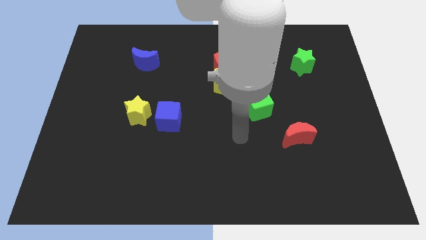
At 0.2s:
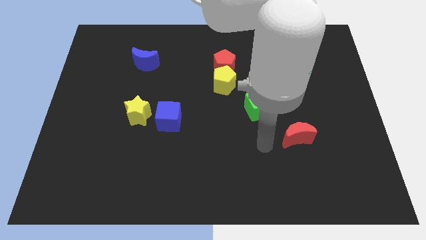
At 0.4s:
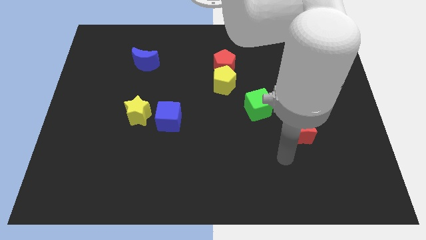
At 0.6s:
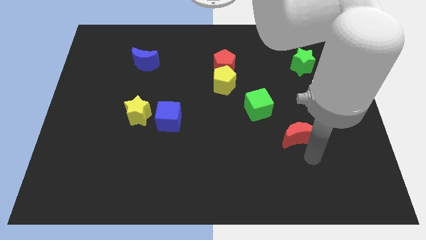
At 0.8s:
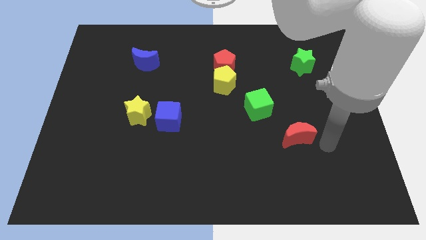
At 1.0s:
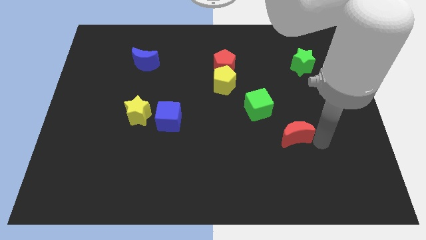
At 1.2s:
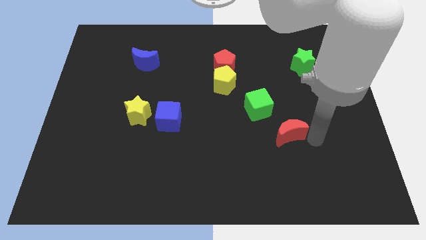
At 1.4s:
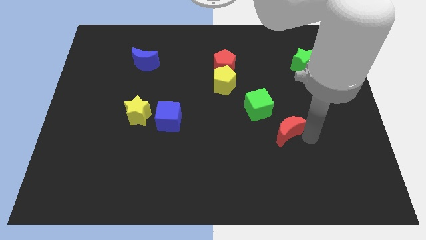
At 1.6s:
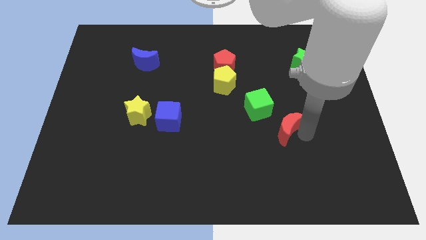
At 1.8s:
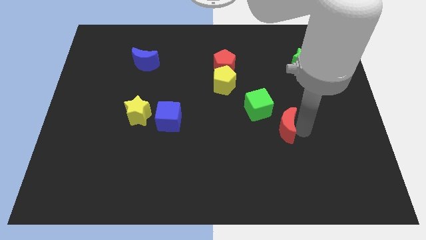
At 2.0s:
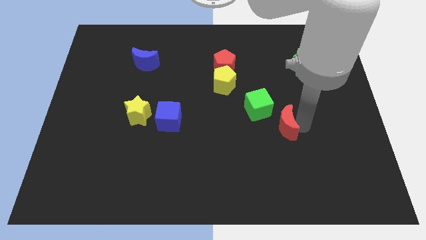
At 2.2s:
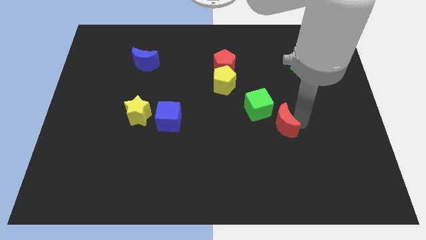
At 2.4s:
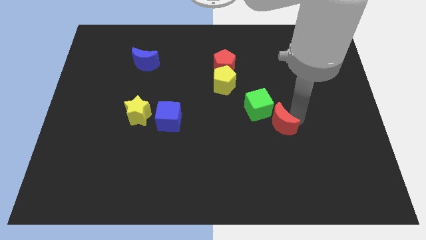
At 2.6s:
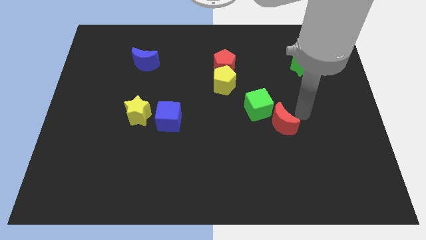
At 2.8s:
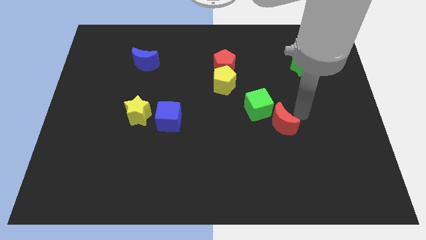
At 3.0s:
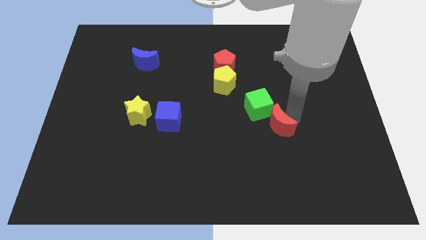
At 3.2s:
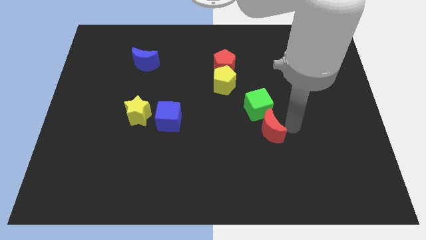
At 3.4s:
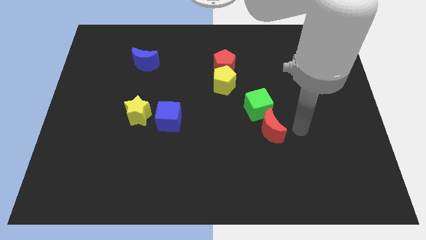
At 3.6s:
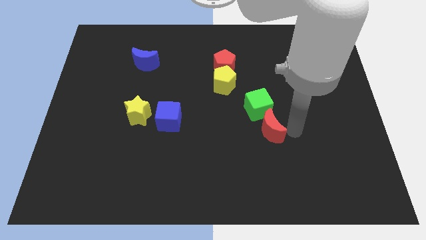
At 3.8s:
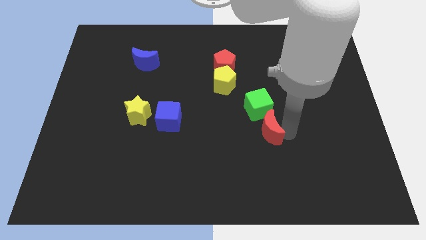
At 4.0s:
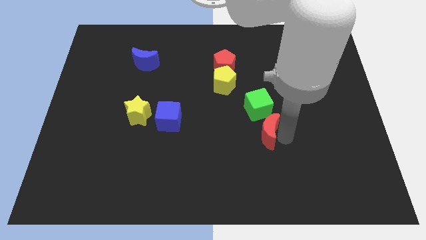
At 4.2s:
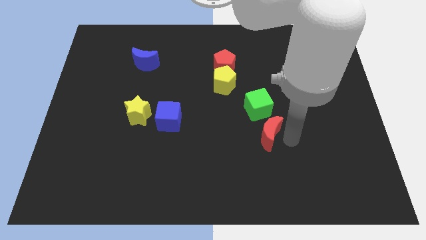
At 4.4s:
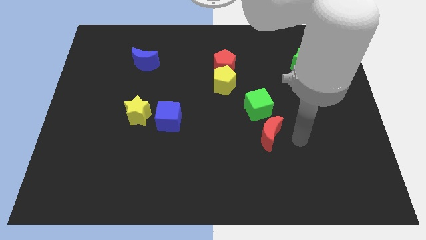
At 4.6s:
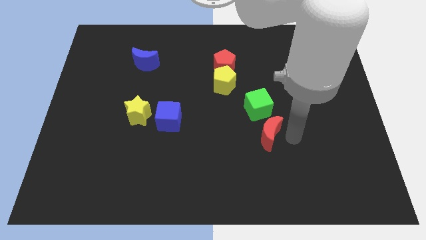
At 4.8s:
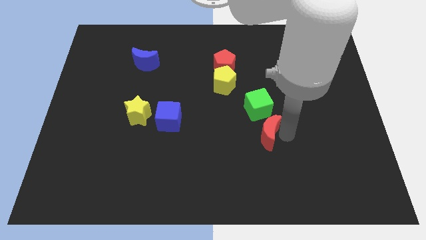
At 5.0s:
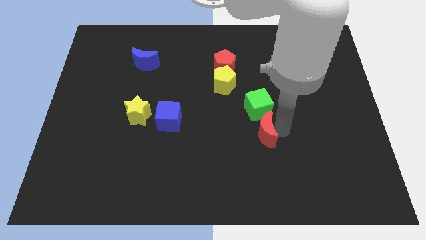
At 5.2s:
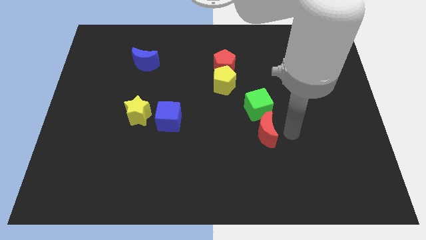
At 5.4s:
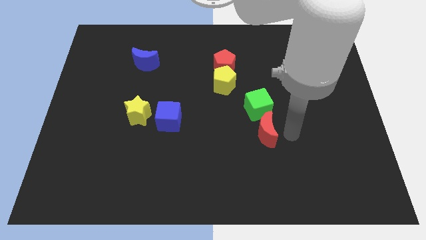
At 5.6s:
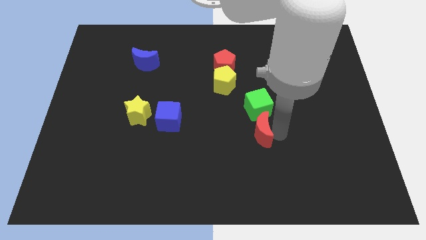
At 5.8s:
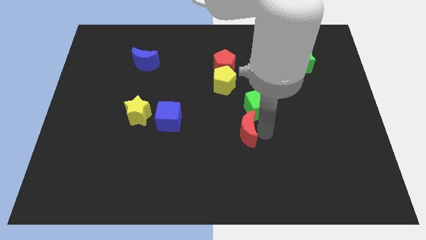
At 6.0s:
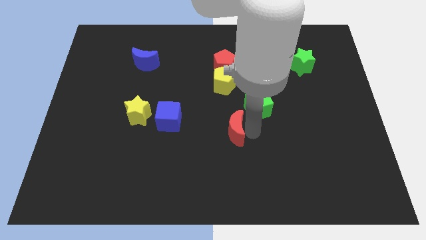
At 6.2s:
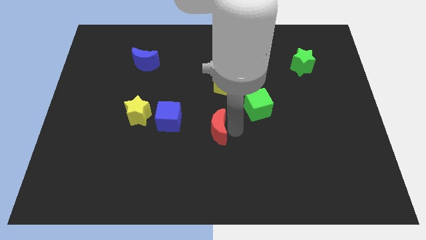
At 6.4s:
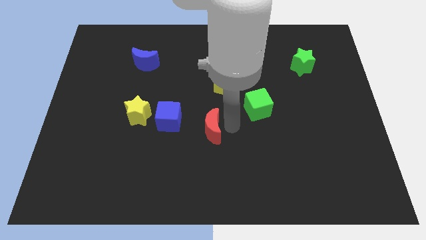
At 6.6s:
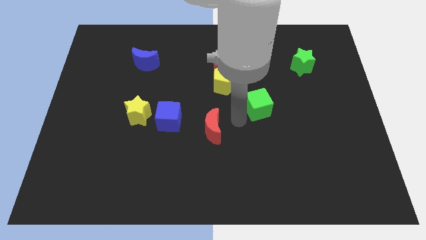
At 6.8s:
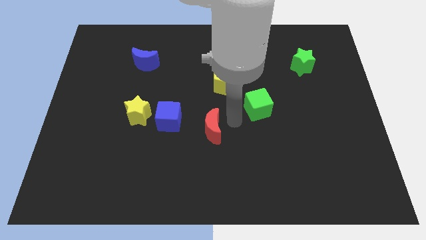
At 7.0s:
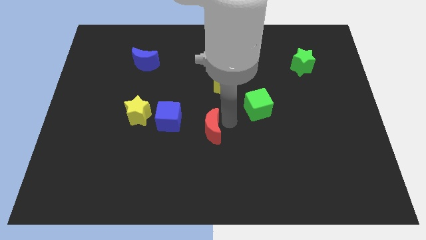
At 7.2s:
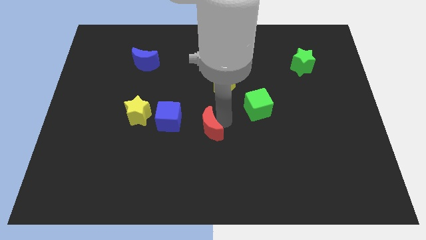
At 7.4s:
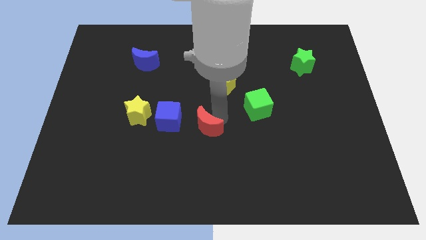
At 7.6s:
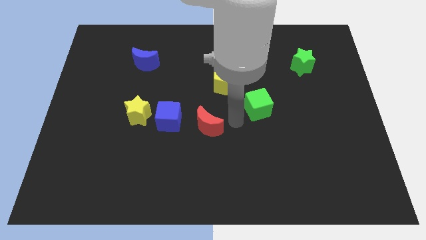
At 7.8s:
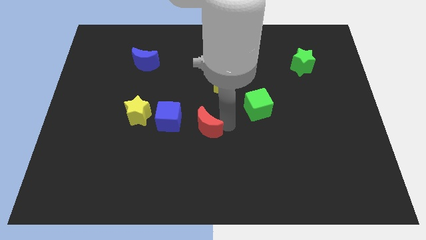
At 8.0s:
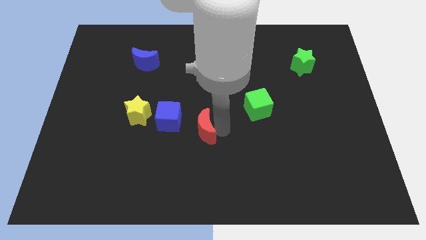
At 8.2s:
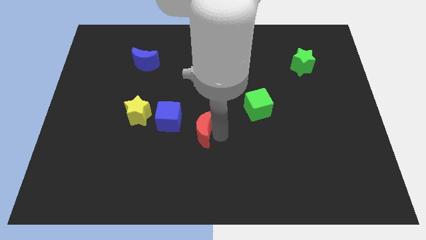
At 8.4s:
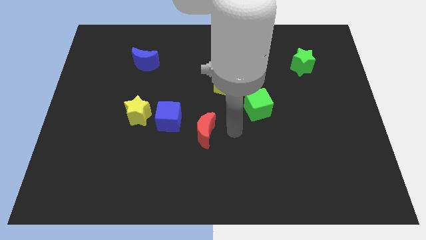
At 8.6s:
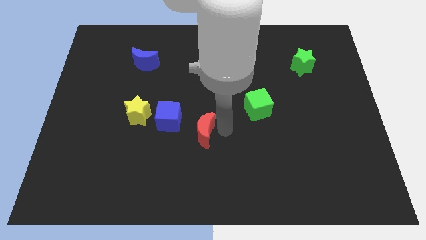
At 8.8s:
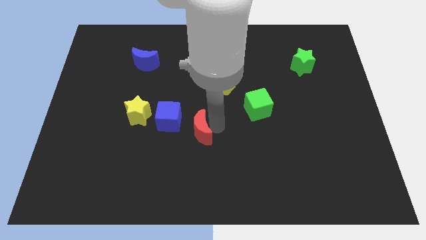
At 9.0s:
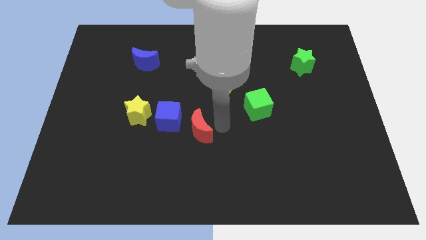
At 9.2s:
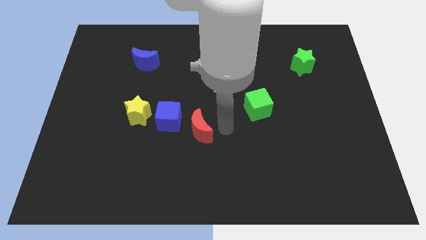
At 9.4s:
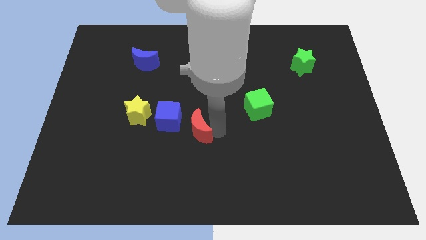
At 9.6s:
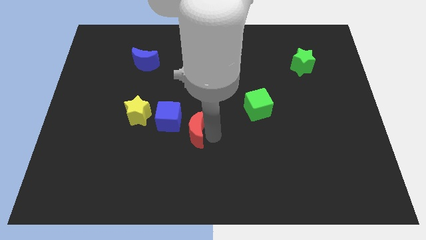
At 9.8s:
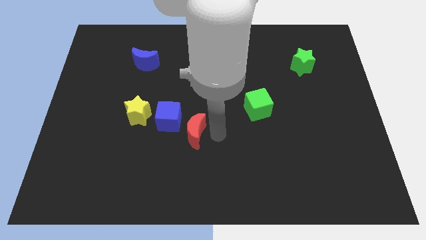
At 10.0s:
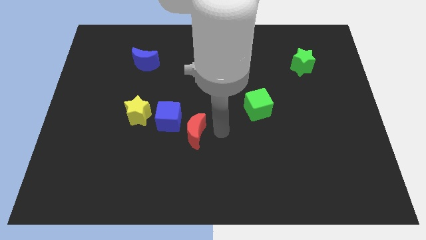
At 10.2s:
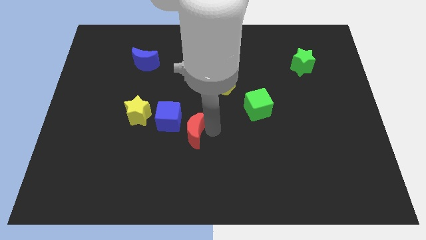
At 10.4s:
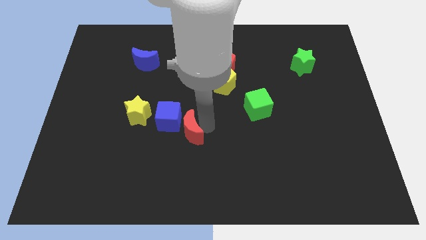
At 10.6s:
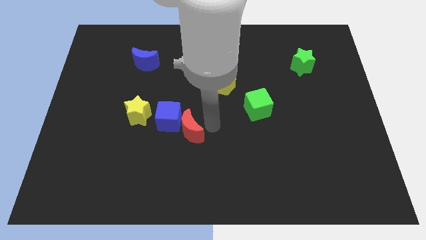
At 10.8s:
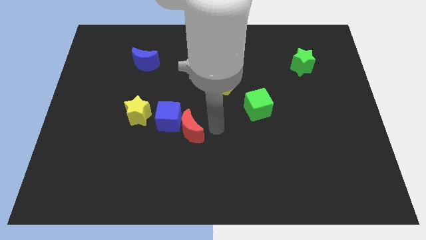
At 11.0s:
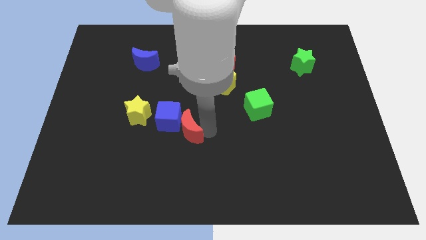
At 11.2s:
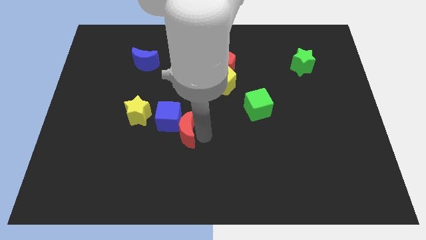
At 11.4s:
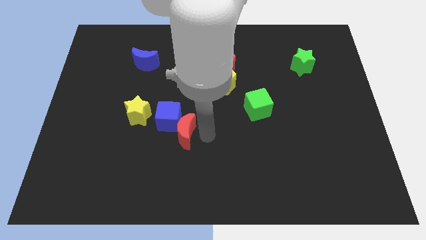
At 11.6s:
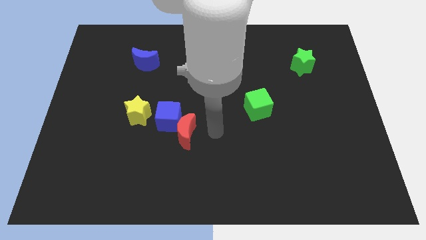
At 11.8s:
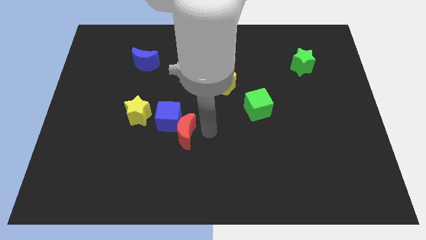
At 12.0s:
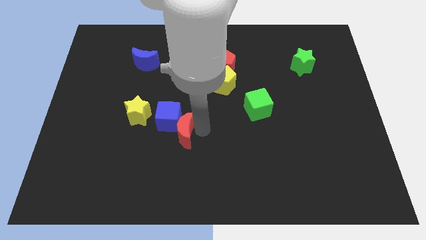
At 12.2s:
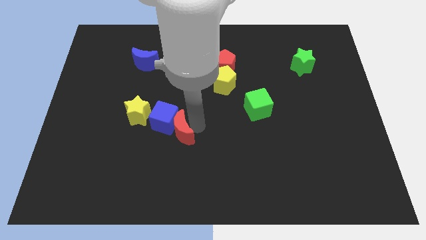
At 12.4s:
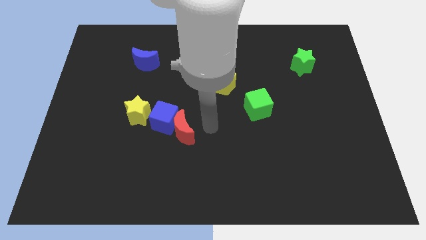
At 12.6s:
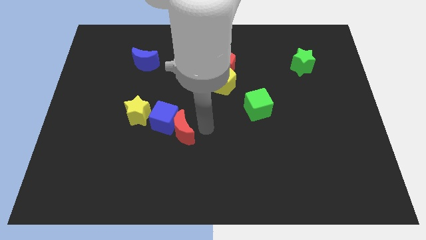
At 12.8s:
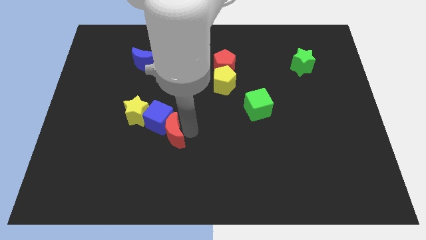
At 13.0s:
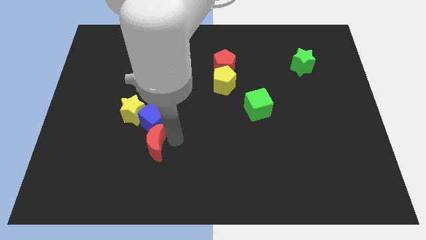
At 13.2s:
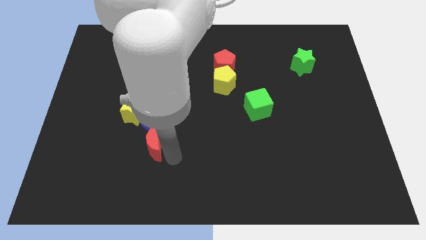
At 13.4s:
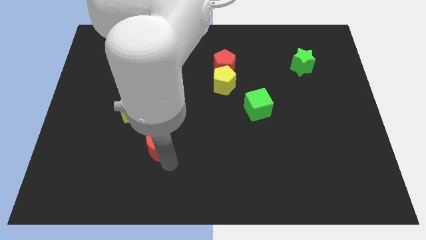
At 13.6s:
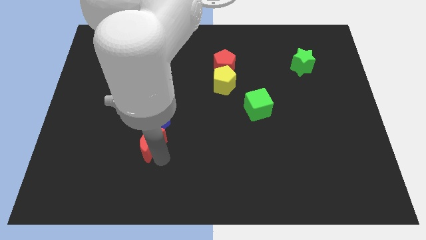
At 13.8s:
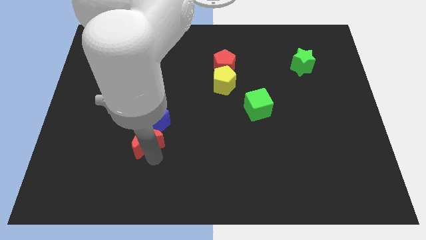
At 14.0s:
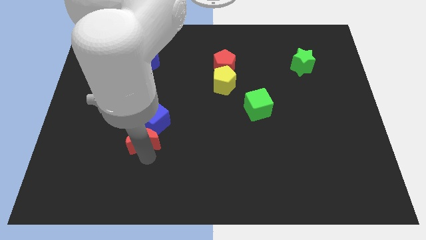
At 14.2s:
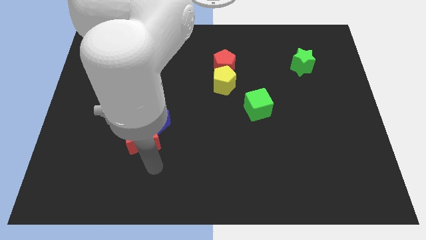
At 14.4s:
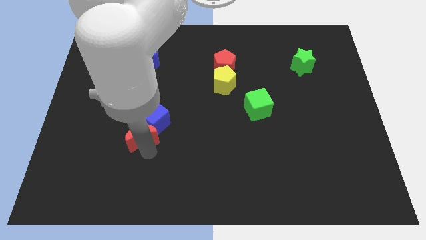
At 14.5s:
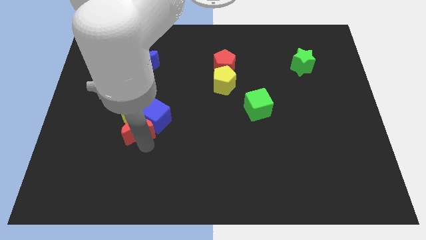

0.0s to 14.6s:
push the red moon to the yellow star

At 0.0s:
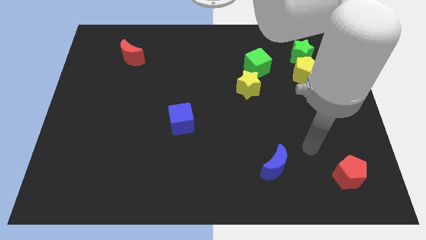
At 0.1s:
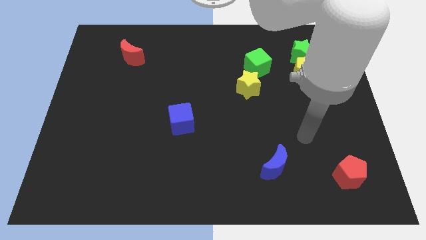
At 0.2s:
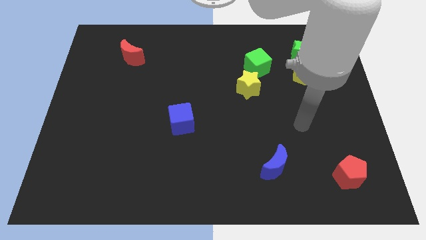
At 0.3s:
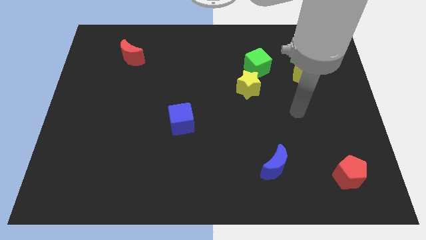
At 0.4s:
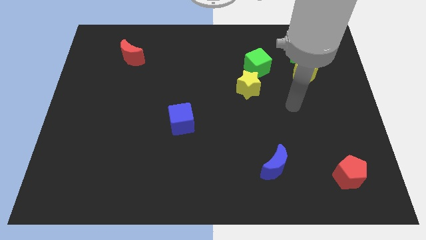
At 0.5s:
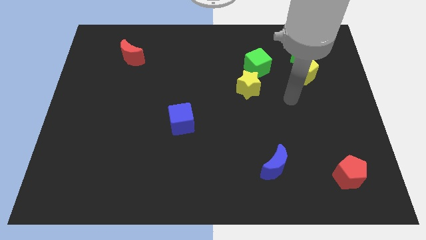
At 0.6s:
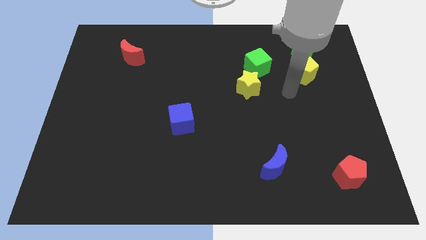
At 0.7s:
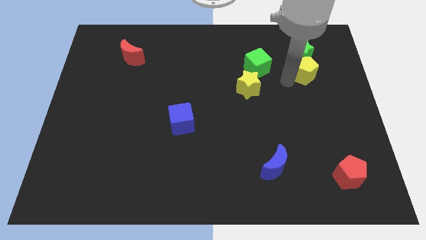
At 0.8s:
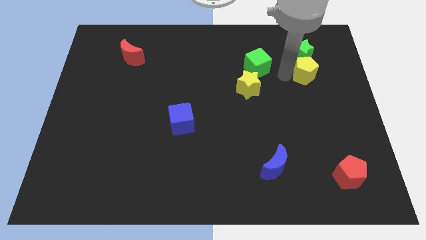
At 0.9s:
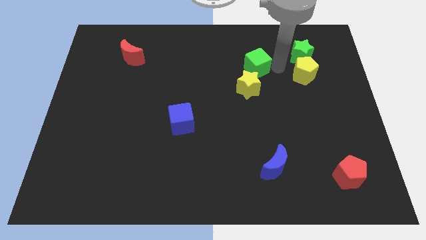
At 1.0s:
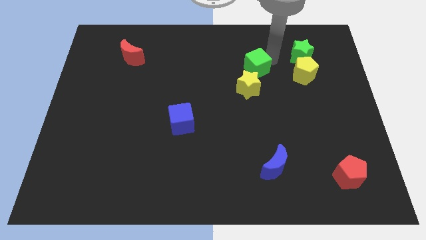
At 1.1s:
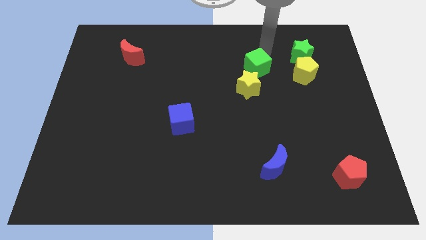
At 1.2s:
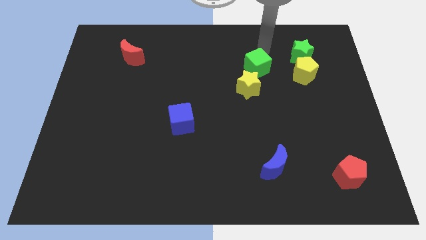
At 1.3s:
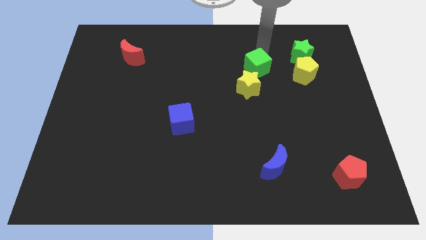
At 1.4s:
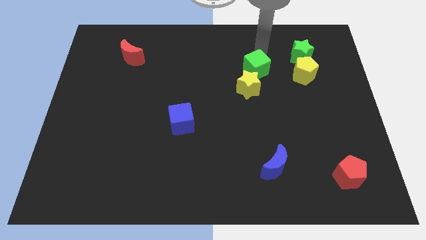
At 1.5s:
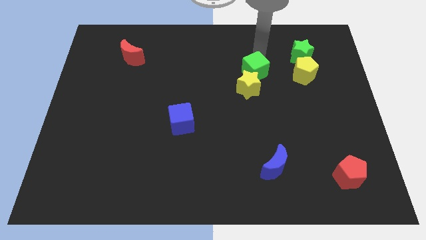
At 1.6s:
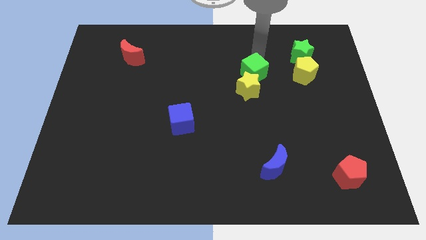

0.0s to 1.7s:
push the green cube next to the yellow star
